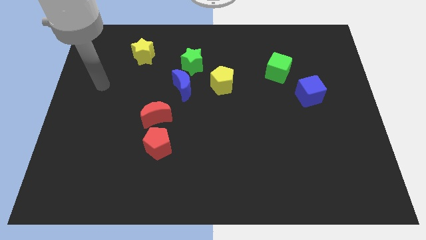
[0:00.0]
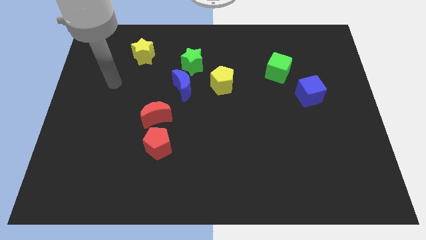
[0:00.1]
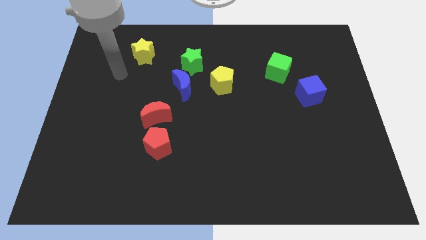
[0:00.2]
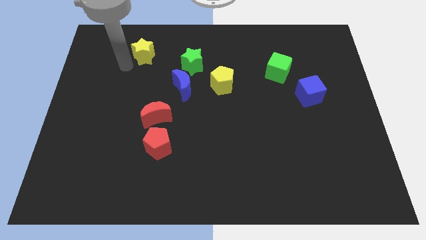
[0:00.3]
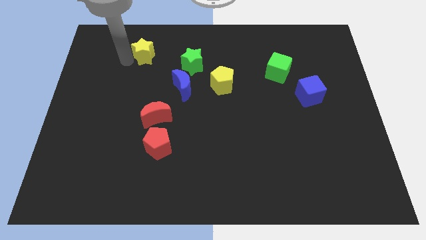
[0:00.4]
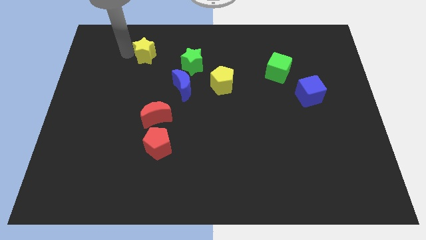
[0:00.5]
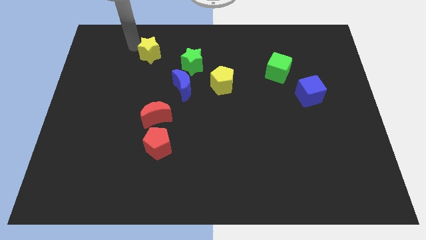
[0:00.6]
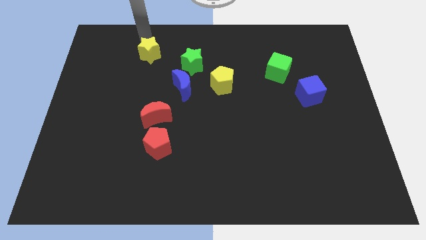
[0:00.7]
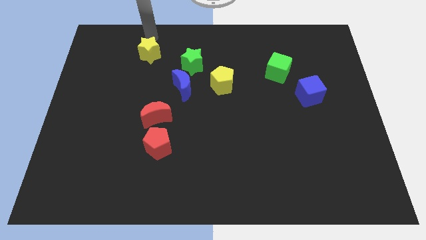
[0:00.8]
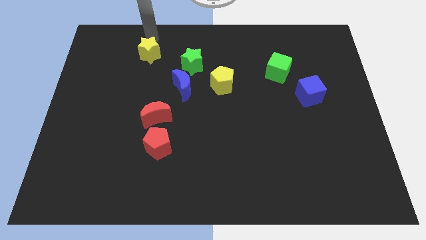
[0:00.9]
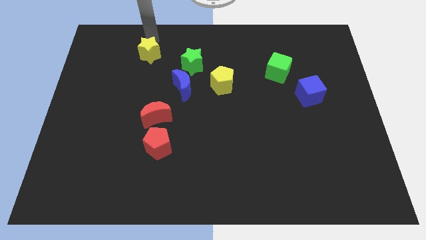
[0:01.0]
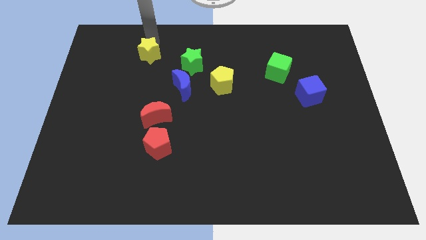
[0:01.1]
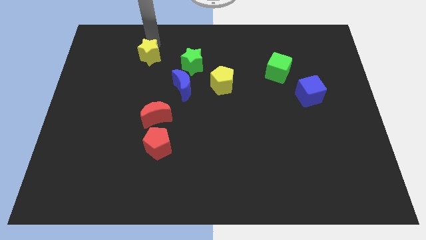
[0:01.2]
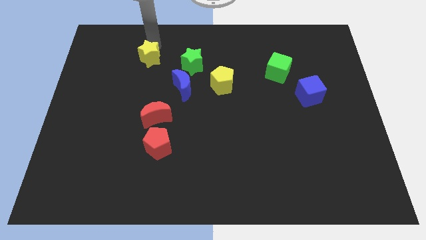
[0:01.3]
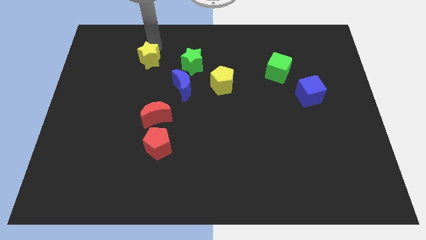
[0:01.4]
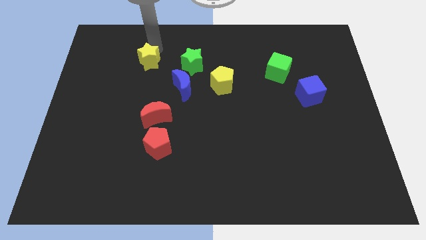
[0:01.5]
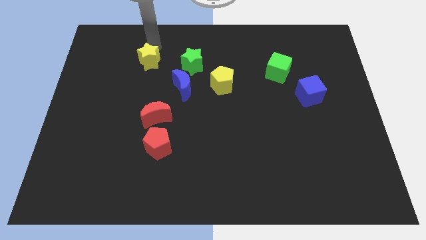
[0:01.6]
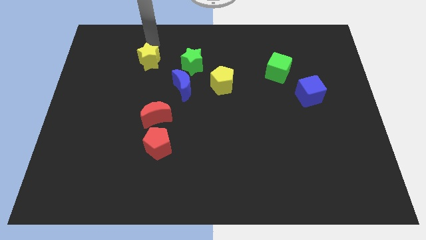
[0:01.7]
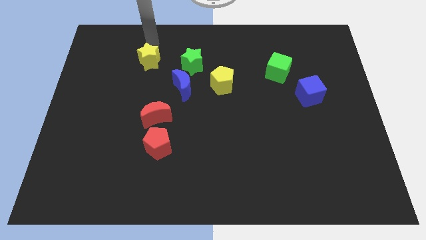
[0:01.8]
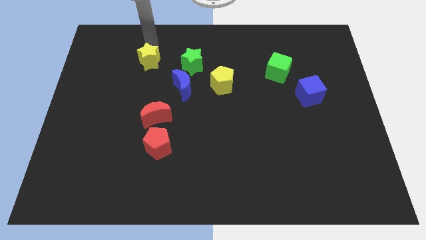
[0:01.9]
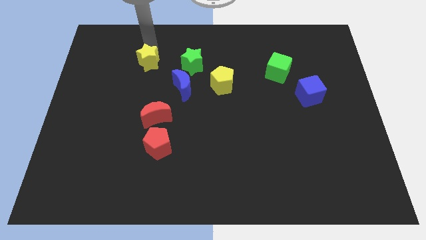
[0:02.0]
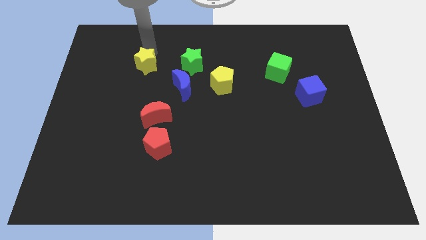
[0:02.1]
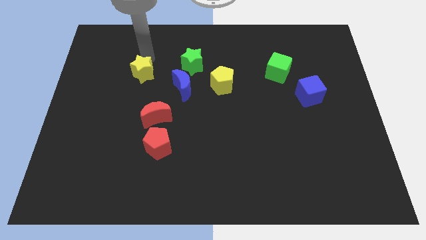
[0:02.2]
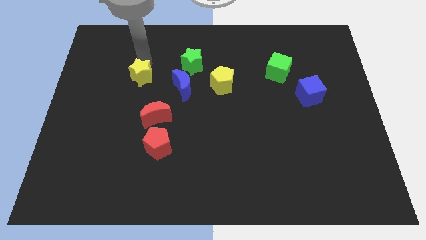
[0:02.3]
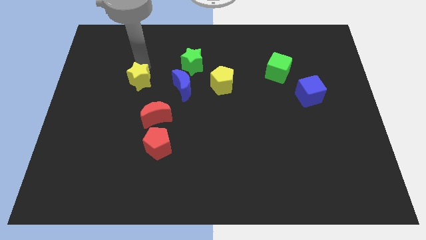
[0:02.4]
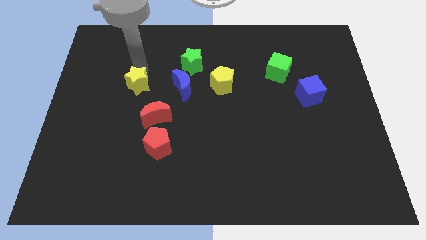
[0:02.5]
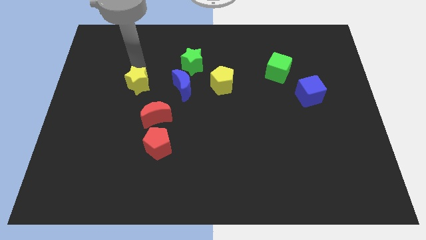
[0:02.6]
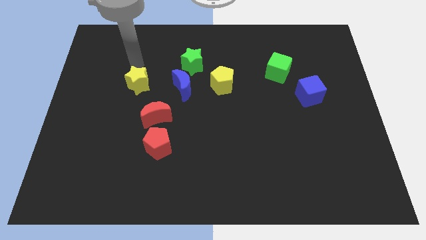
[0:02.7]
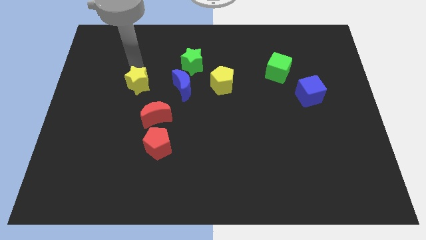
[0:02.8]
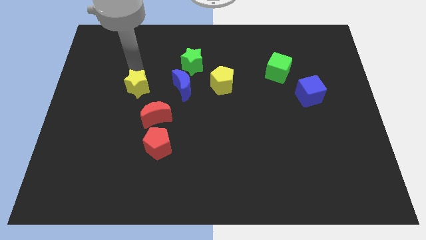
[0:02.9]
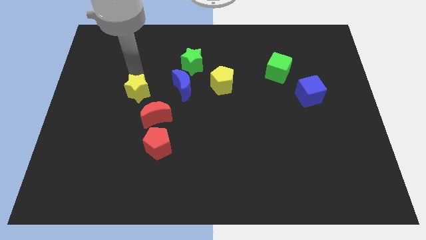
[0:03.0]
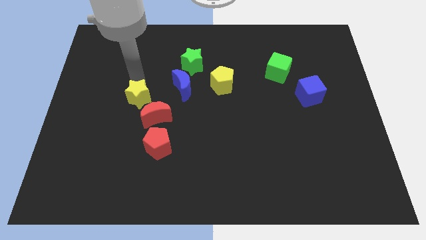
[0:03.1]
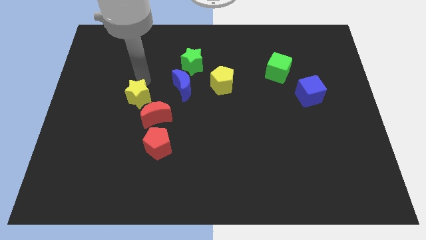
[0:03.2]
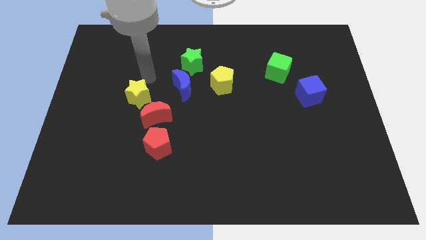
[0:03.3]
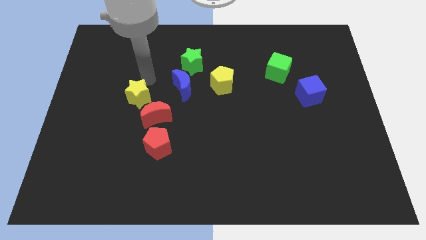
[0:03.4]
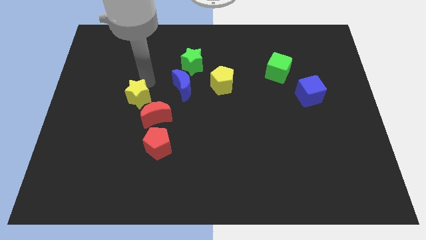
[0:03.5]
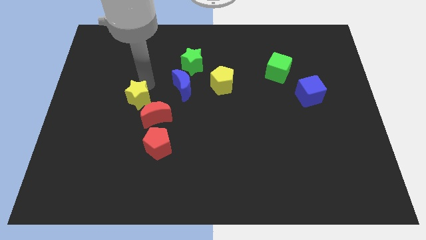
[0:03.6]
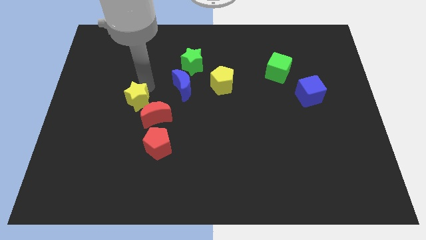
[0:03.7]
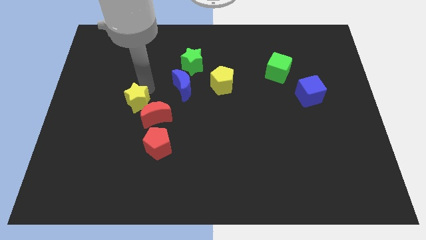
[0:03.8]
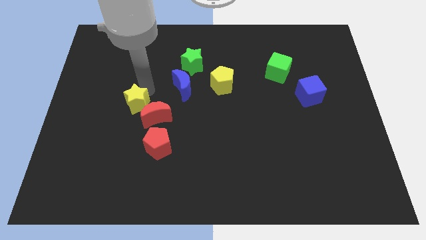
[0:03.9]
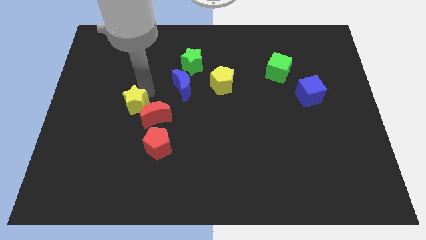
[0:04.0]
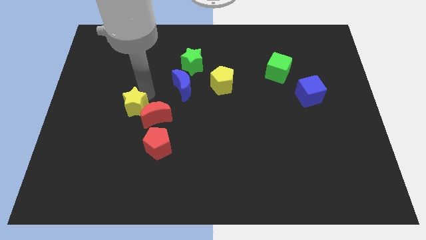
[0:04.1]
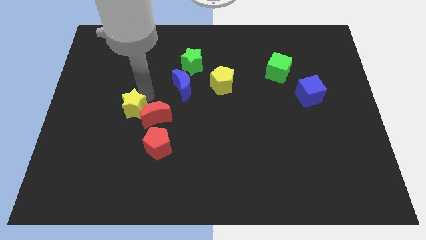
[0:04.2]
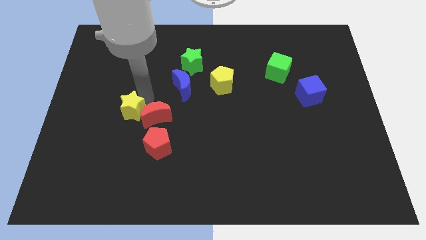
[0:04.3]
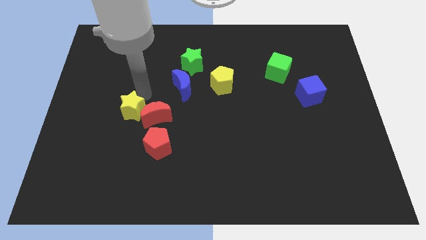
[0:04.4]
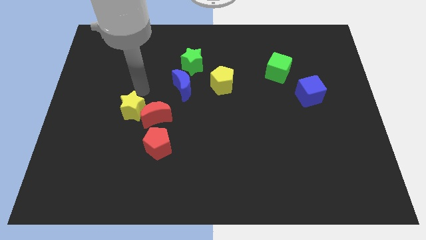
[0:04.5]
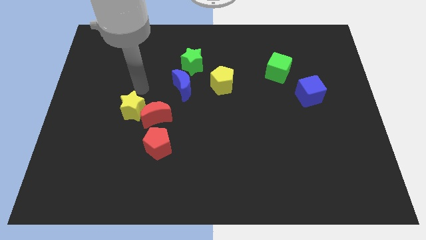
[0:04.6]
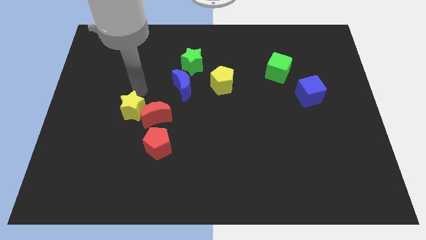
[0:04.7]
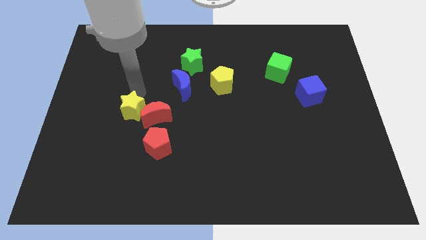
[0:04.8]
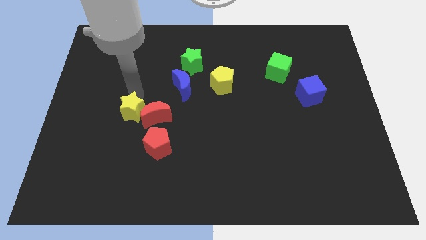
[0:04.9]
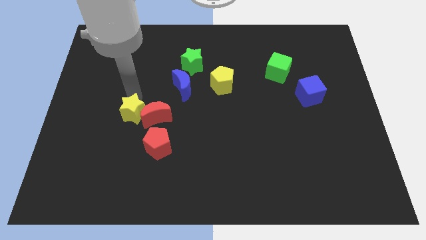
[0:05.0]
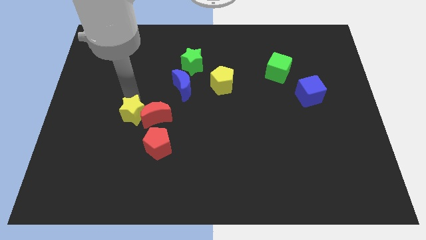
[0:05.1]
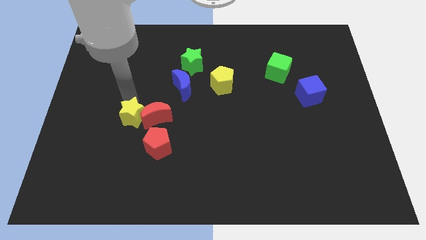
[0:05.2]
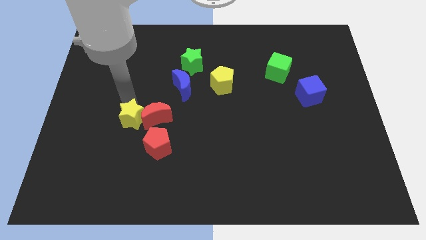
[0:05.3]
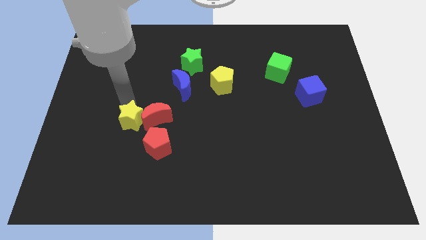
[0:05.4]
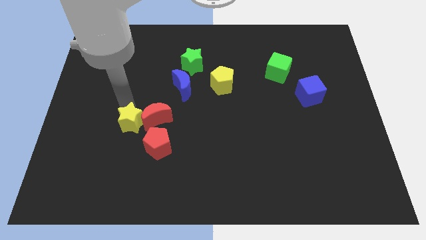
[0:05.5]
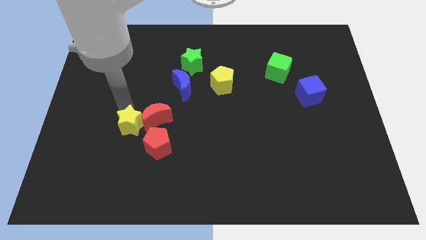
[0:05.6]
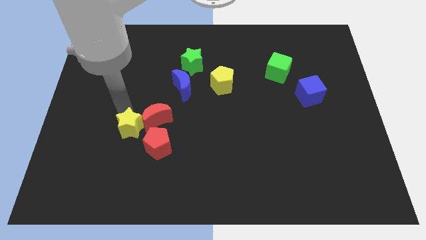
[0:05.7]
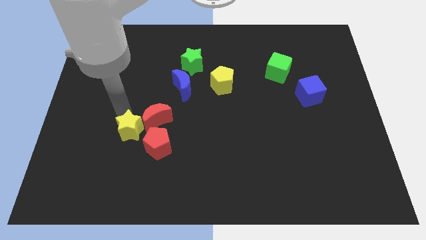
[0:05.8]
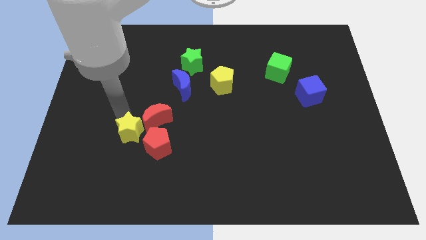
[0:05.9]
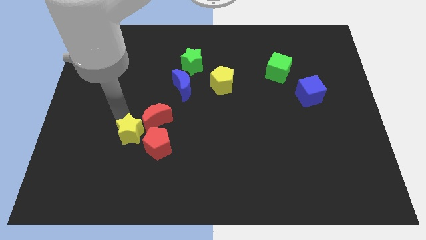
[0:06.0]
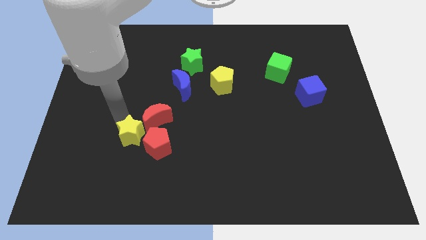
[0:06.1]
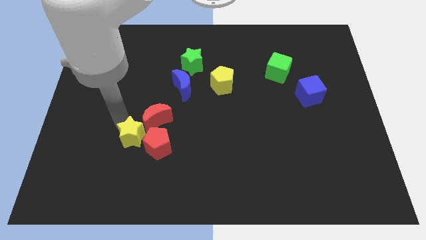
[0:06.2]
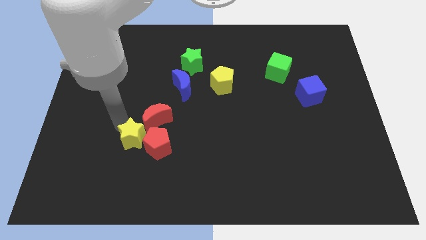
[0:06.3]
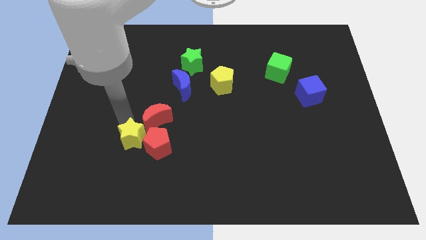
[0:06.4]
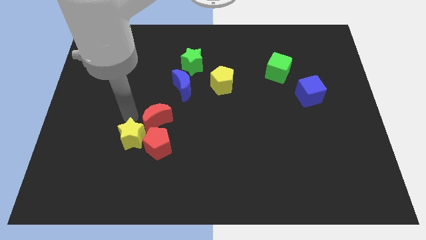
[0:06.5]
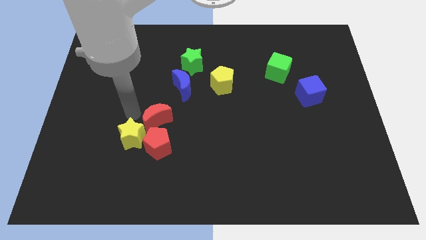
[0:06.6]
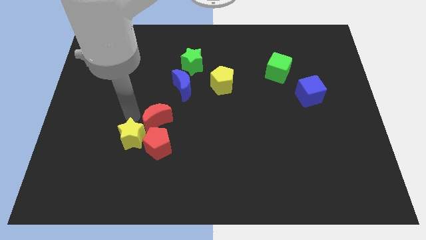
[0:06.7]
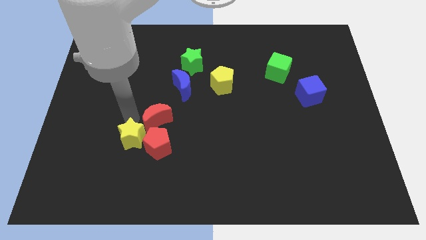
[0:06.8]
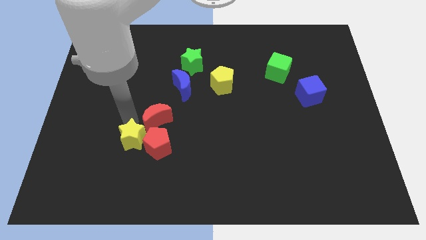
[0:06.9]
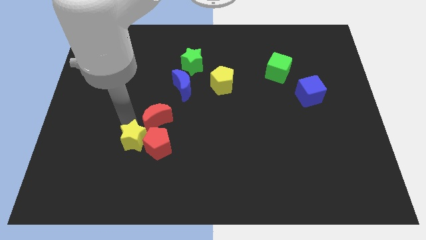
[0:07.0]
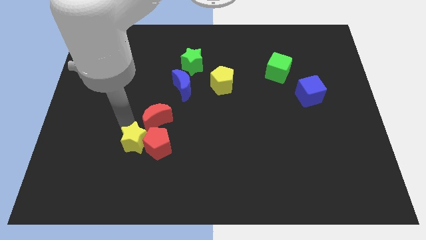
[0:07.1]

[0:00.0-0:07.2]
push the yellow star to the bottom left side of the red pentagon
